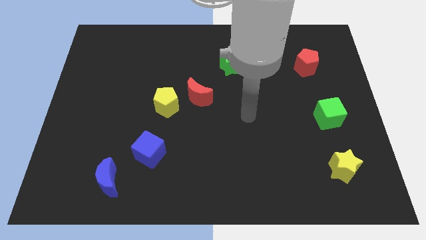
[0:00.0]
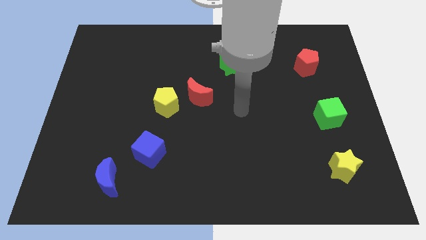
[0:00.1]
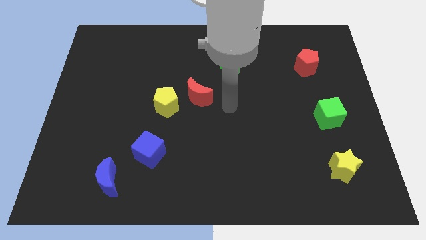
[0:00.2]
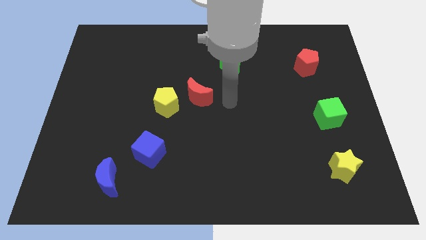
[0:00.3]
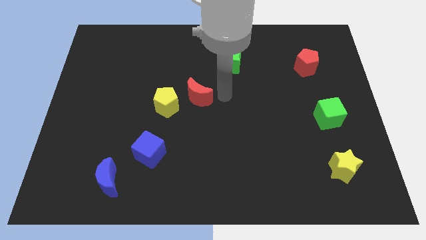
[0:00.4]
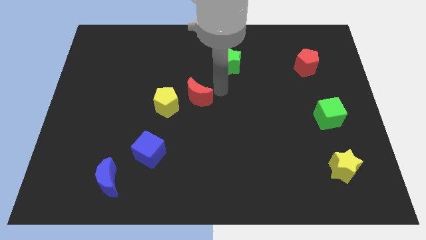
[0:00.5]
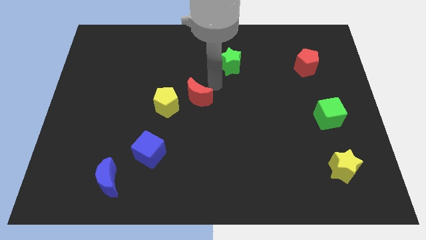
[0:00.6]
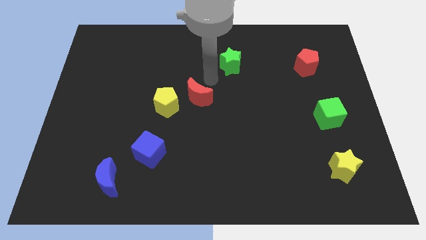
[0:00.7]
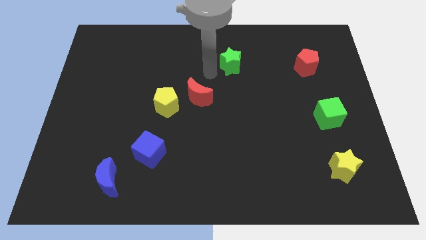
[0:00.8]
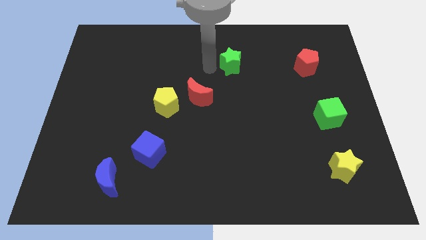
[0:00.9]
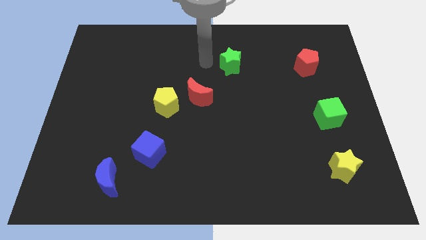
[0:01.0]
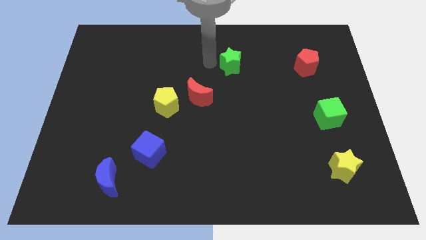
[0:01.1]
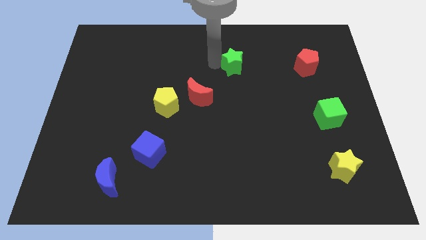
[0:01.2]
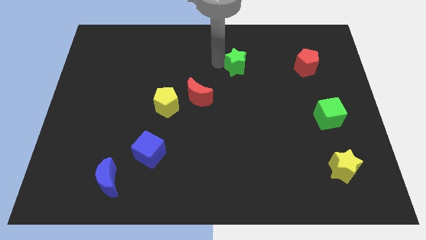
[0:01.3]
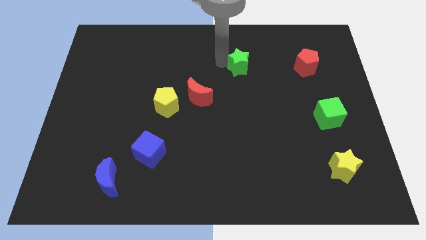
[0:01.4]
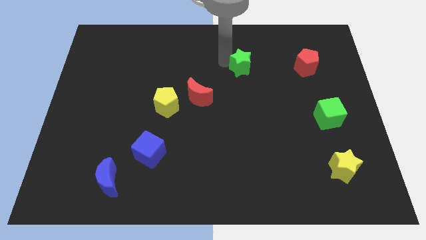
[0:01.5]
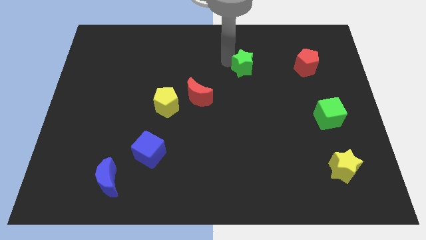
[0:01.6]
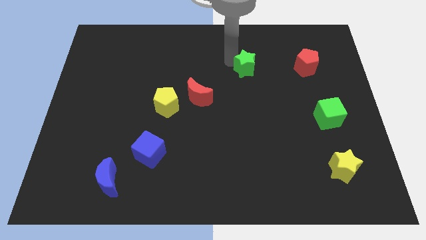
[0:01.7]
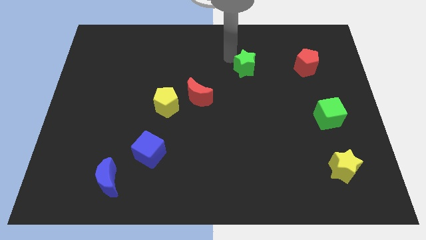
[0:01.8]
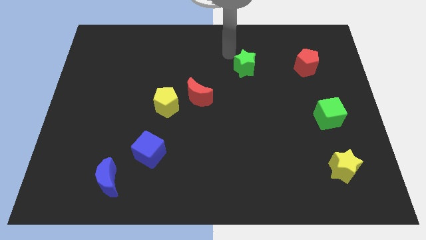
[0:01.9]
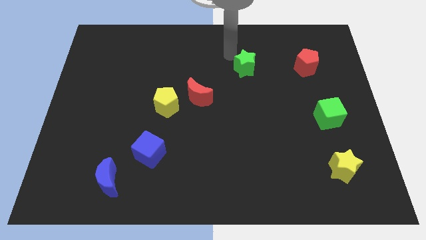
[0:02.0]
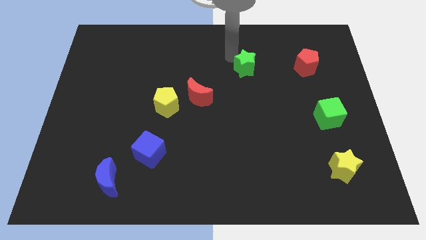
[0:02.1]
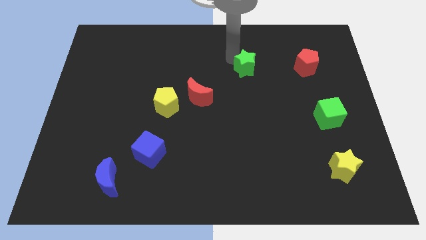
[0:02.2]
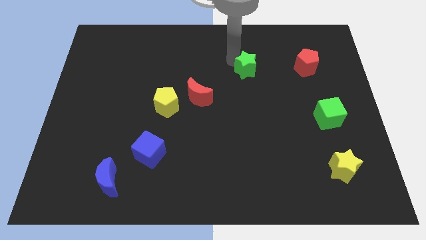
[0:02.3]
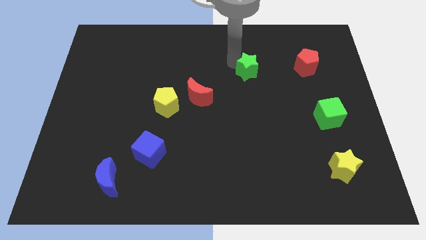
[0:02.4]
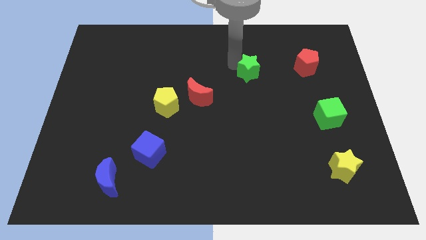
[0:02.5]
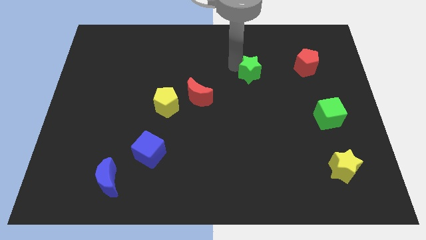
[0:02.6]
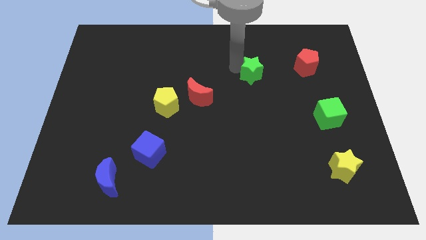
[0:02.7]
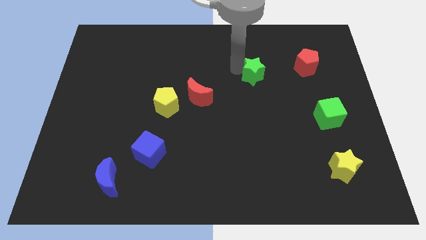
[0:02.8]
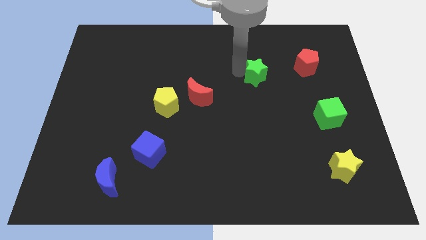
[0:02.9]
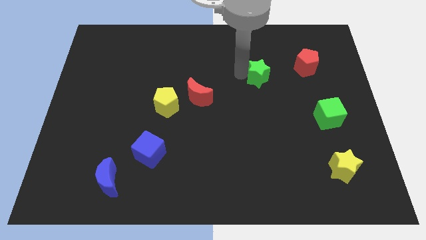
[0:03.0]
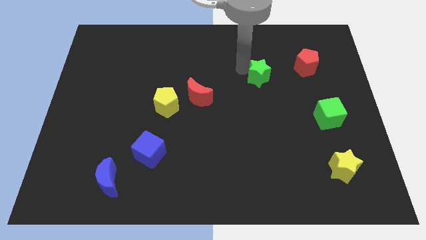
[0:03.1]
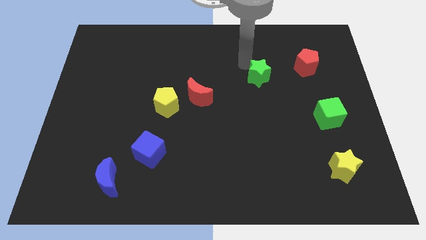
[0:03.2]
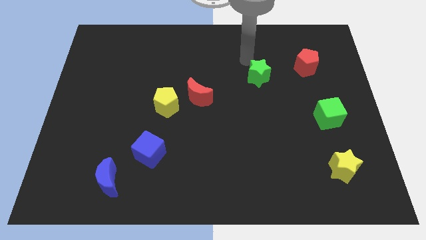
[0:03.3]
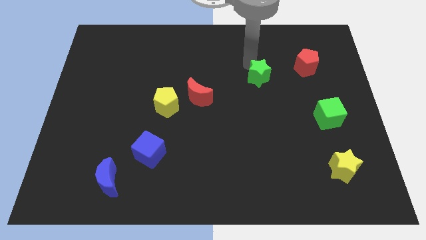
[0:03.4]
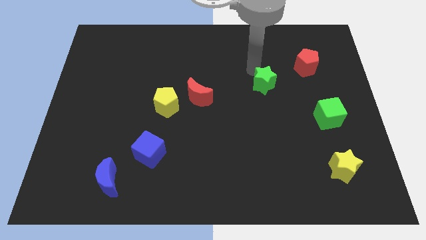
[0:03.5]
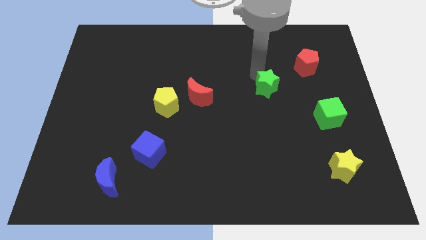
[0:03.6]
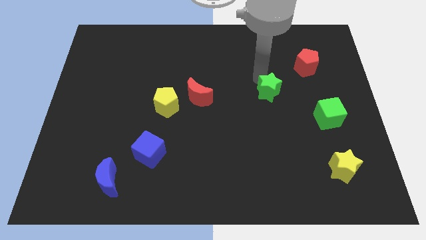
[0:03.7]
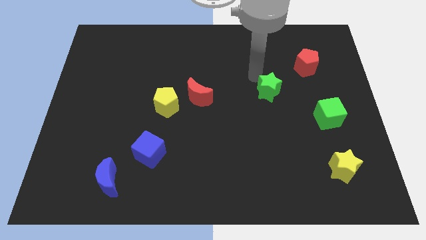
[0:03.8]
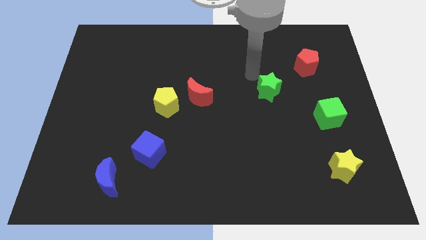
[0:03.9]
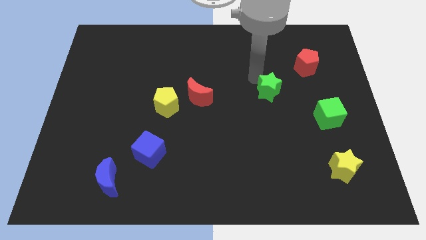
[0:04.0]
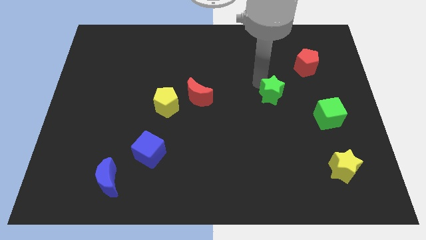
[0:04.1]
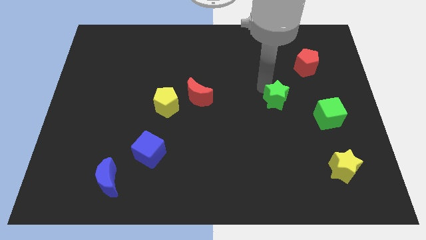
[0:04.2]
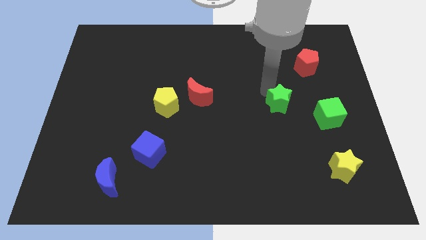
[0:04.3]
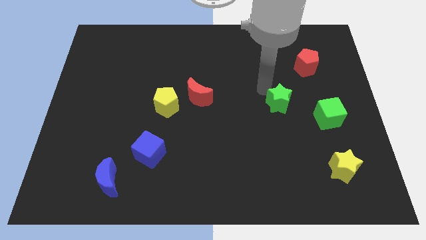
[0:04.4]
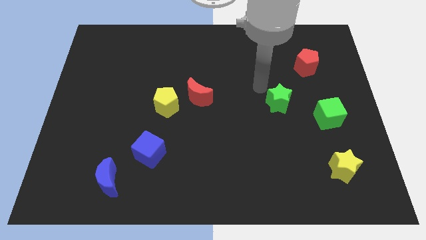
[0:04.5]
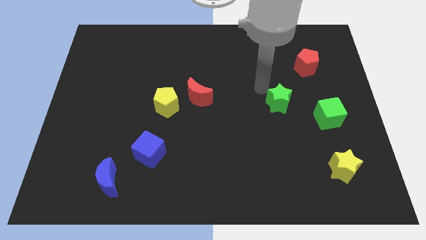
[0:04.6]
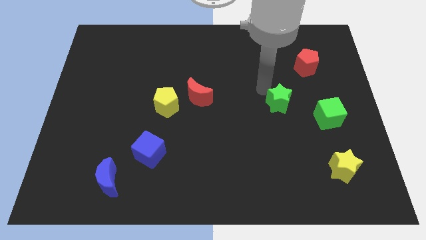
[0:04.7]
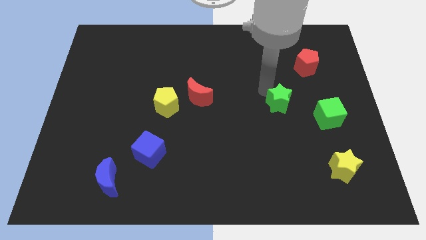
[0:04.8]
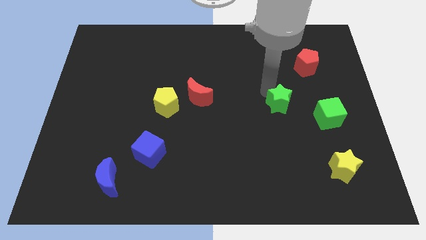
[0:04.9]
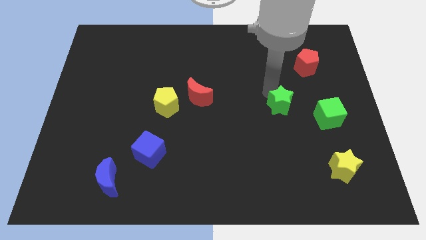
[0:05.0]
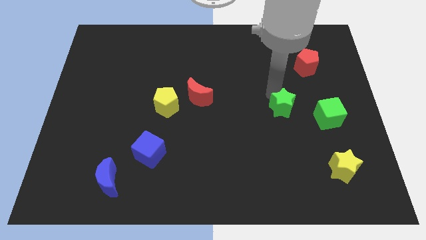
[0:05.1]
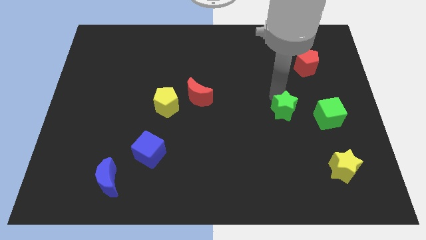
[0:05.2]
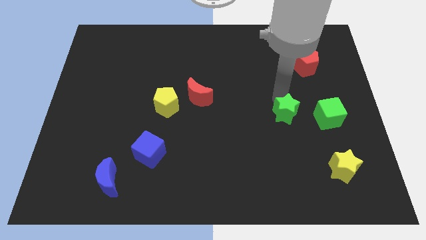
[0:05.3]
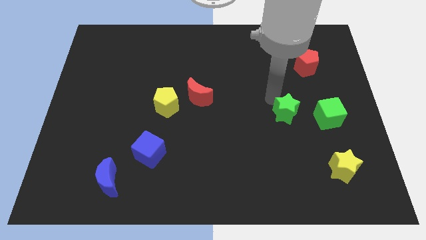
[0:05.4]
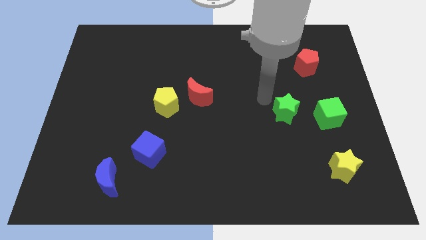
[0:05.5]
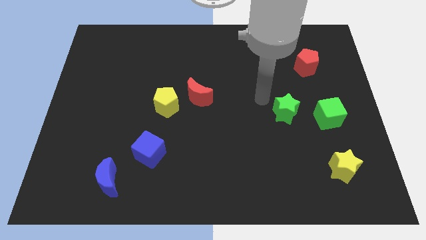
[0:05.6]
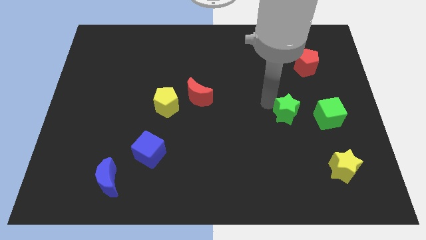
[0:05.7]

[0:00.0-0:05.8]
slide the green star downwards and right diagonally

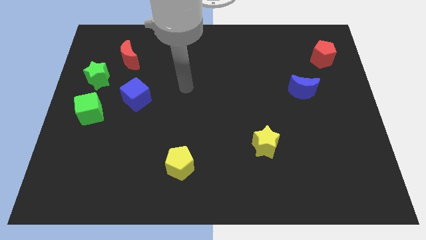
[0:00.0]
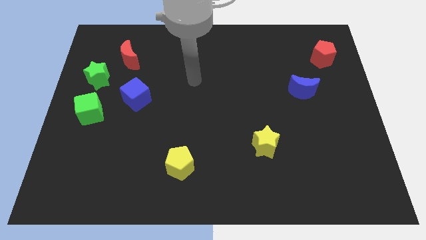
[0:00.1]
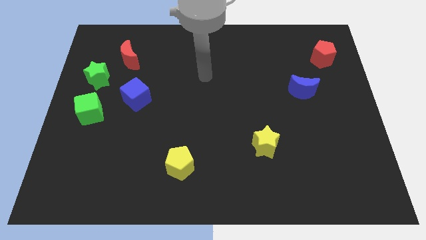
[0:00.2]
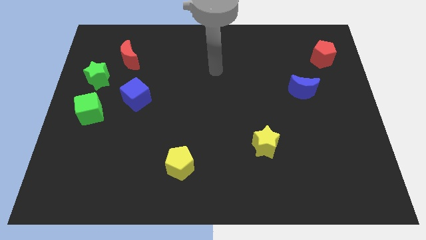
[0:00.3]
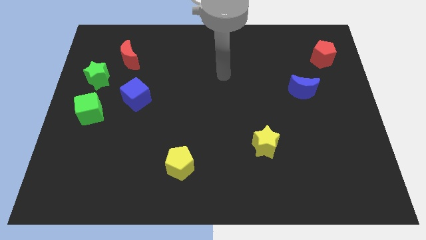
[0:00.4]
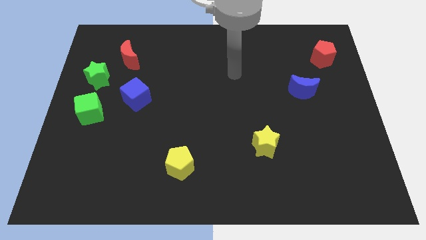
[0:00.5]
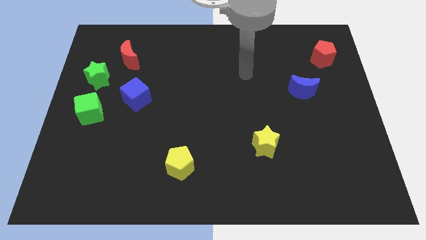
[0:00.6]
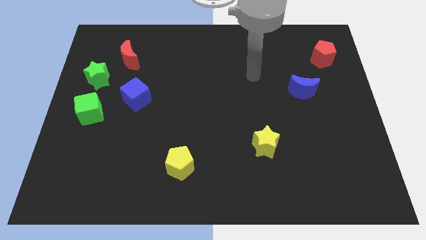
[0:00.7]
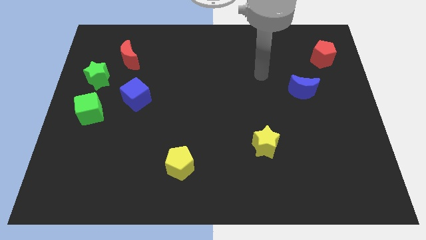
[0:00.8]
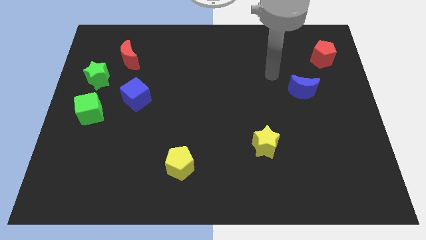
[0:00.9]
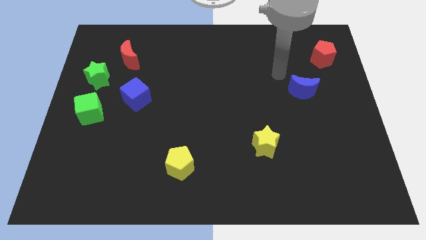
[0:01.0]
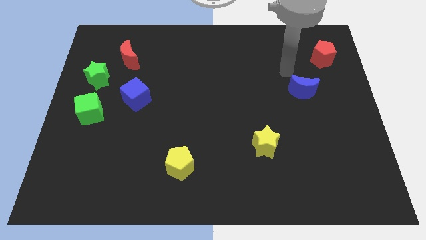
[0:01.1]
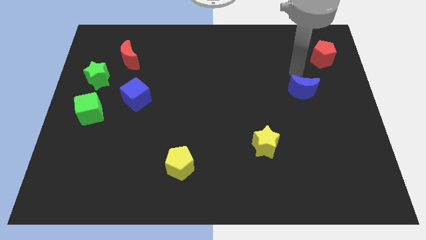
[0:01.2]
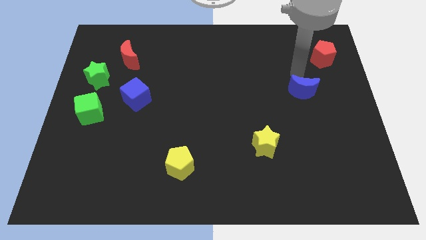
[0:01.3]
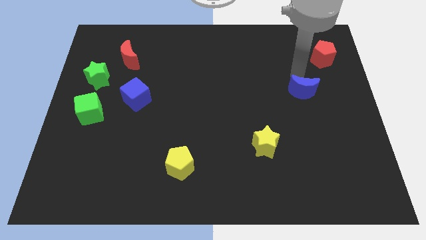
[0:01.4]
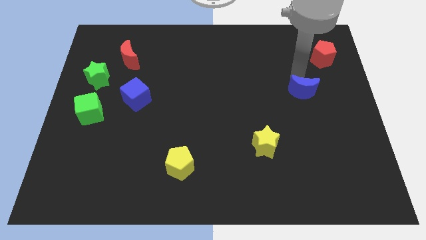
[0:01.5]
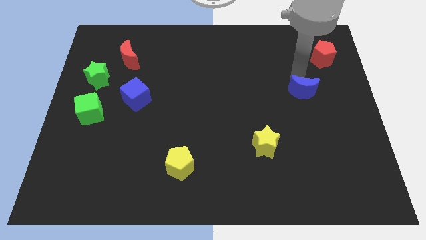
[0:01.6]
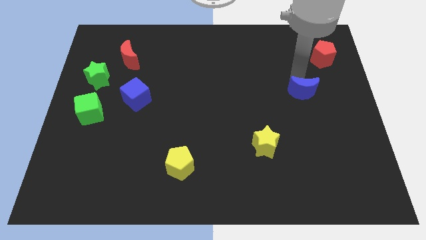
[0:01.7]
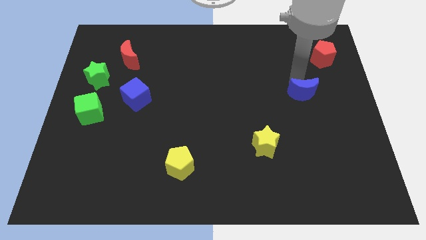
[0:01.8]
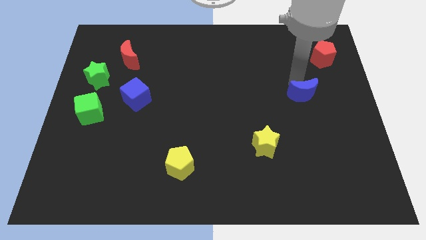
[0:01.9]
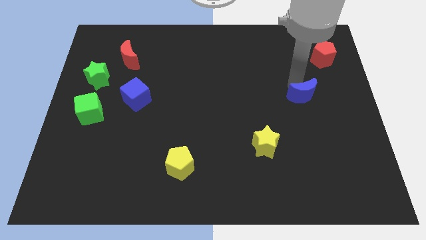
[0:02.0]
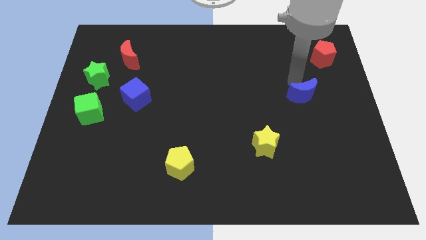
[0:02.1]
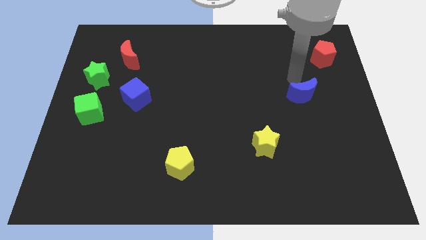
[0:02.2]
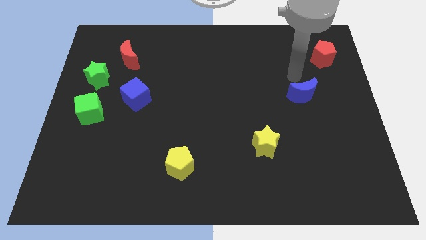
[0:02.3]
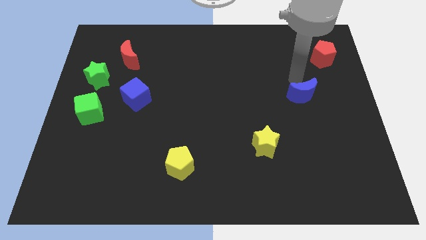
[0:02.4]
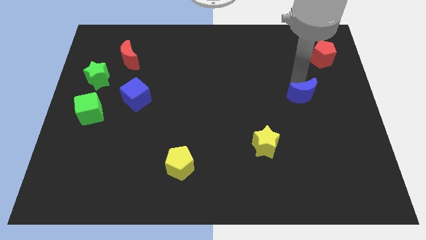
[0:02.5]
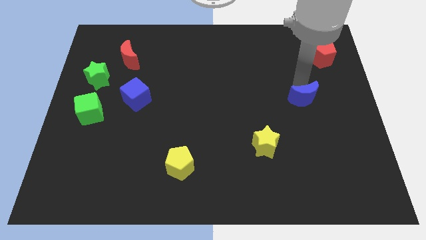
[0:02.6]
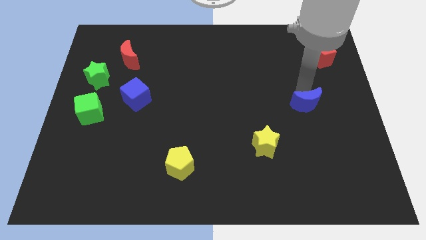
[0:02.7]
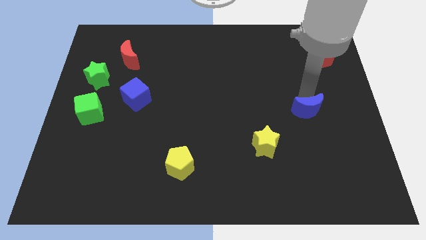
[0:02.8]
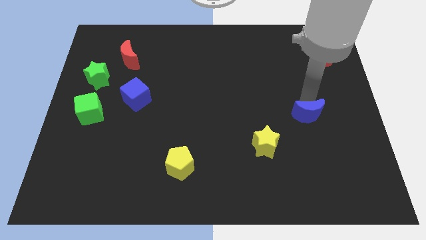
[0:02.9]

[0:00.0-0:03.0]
push the blue moon down slightly
